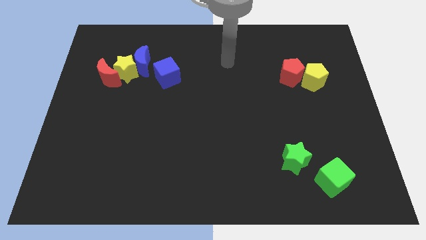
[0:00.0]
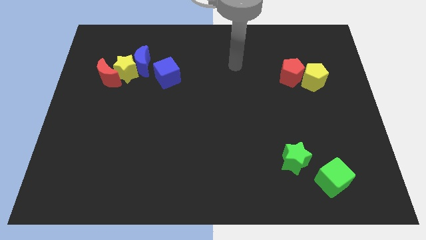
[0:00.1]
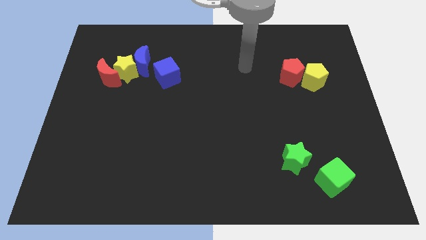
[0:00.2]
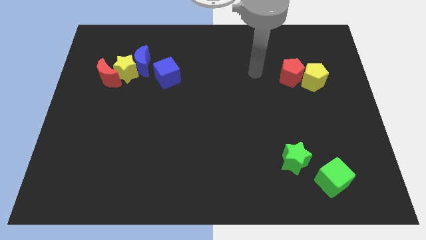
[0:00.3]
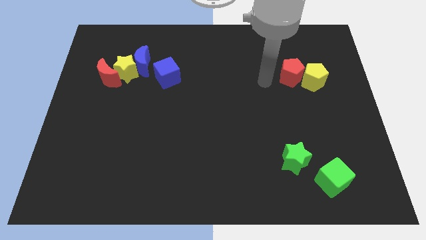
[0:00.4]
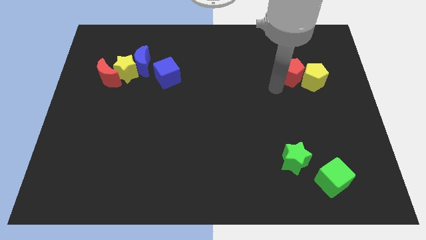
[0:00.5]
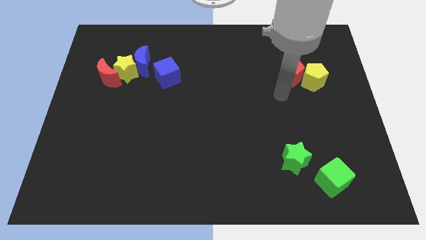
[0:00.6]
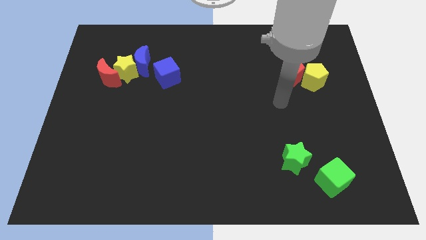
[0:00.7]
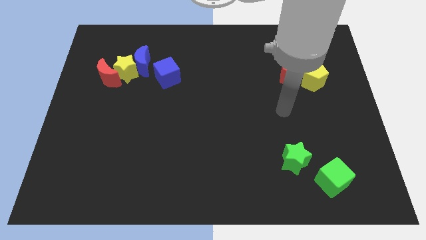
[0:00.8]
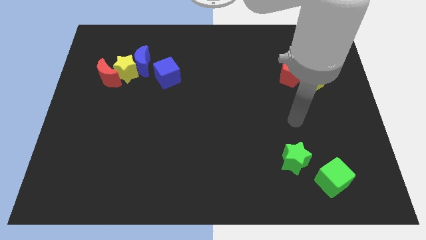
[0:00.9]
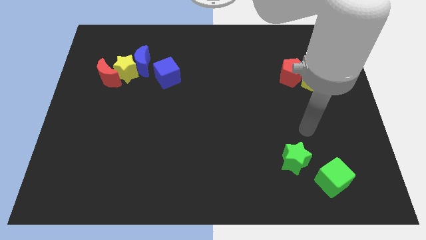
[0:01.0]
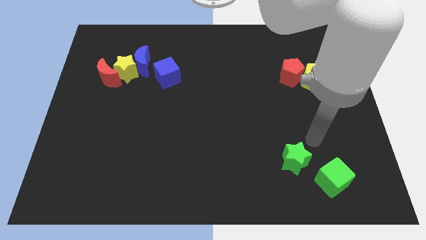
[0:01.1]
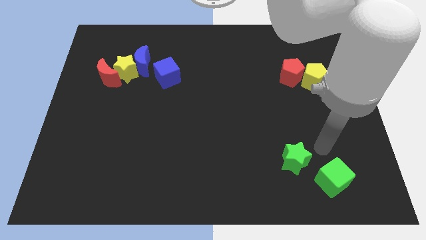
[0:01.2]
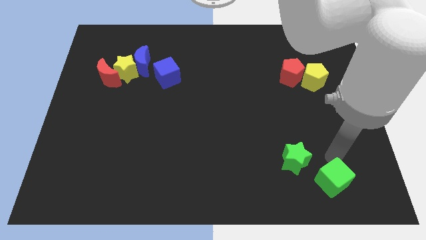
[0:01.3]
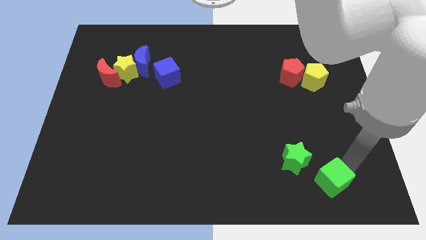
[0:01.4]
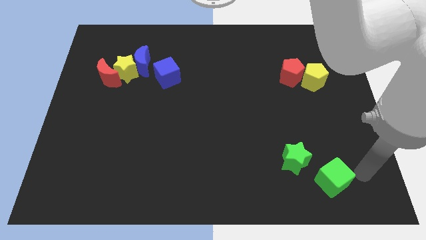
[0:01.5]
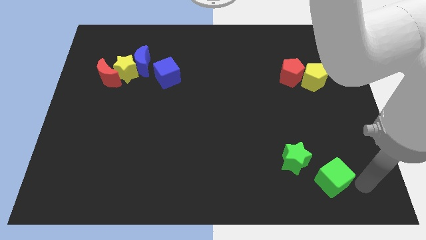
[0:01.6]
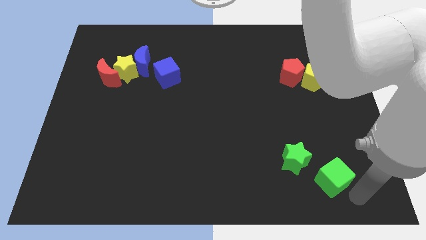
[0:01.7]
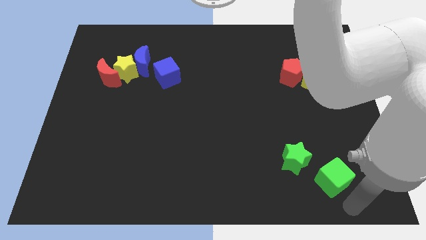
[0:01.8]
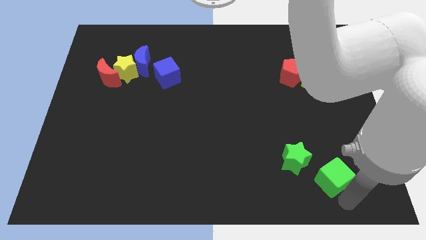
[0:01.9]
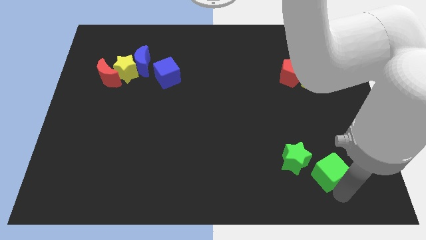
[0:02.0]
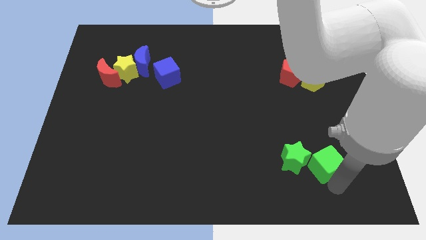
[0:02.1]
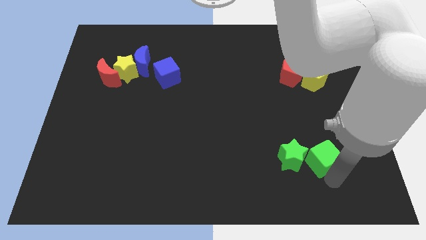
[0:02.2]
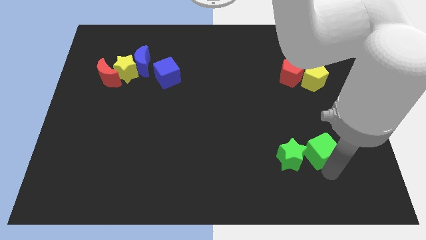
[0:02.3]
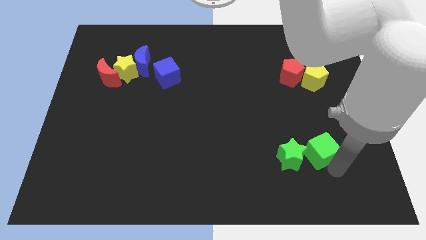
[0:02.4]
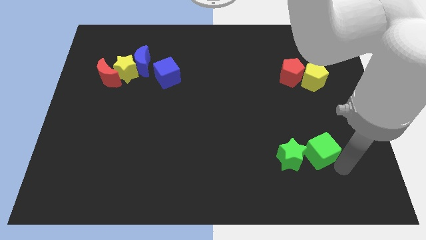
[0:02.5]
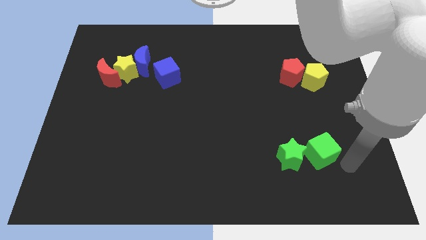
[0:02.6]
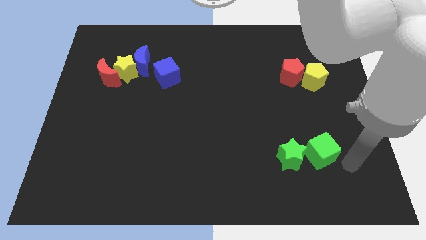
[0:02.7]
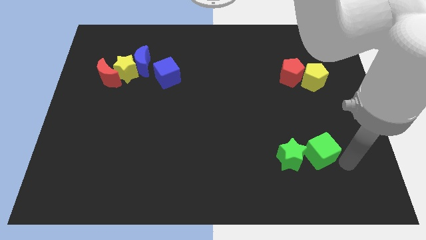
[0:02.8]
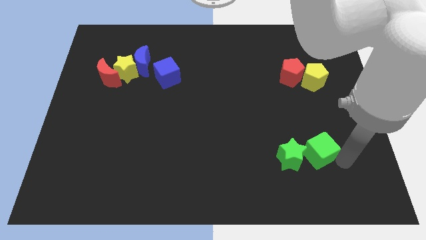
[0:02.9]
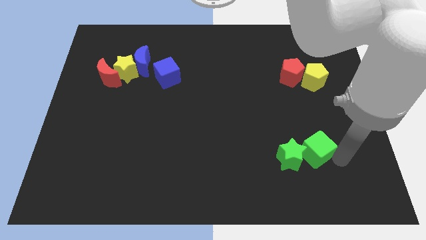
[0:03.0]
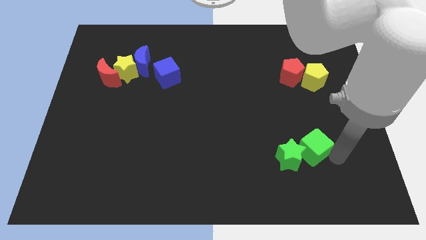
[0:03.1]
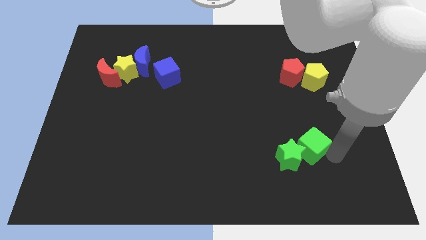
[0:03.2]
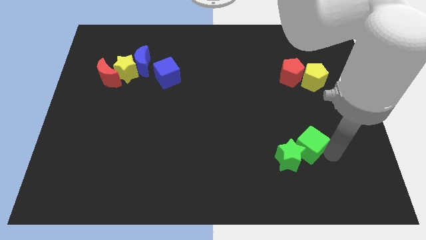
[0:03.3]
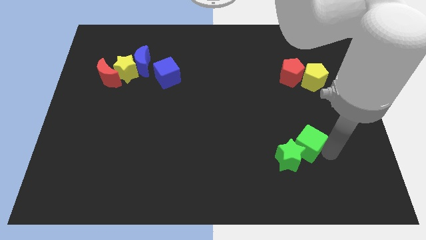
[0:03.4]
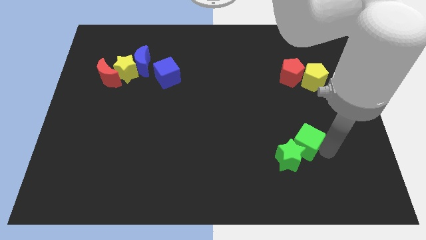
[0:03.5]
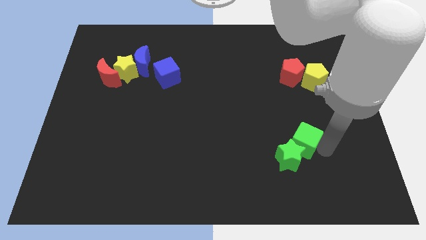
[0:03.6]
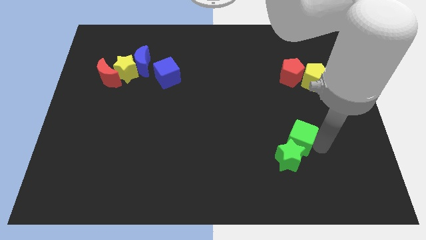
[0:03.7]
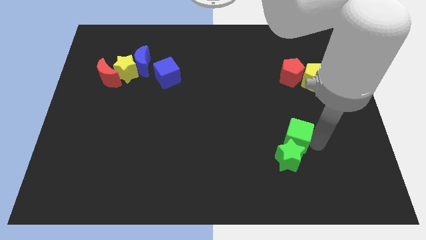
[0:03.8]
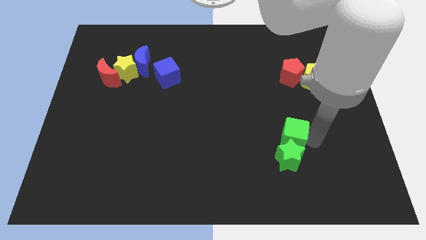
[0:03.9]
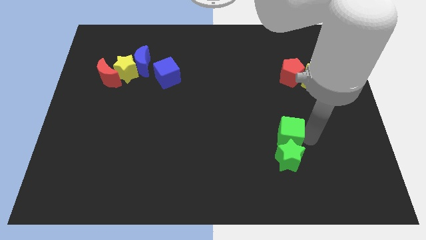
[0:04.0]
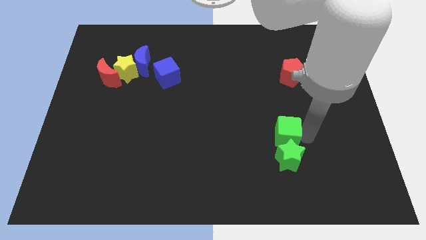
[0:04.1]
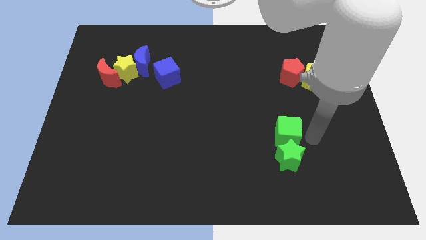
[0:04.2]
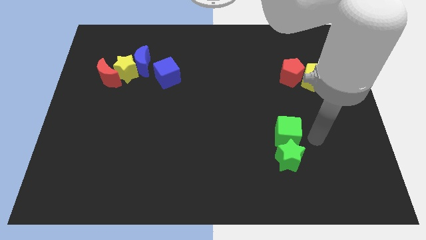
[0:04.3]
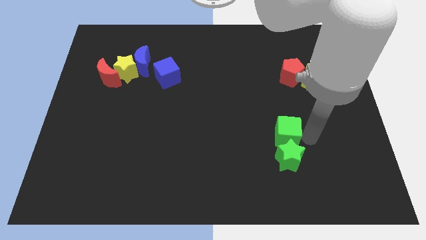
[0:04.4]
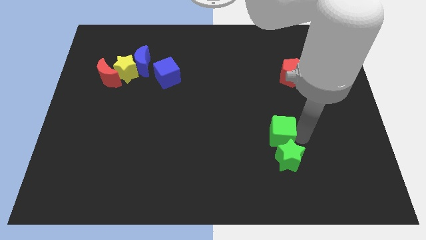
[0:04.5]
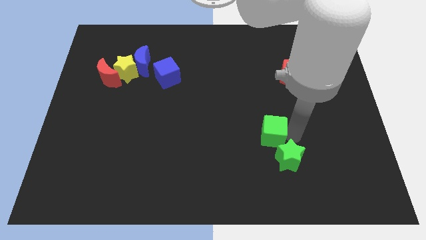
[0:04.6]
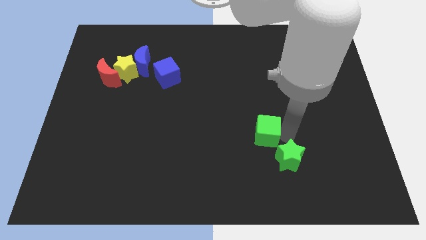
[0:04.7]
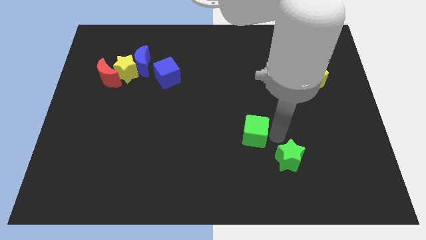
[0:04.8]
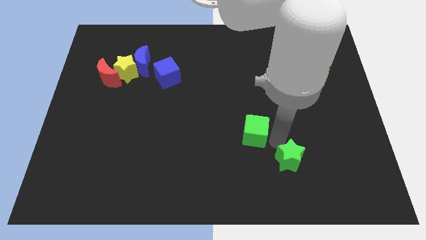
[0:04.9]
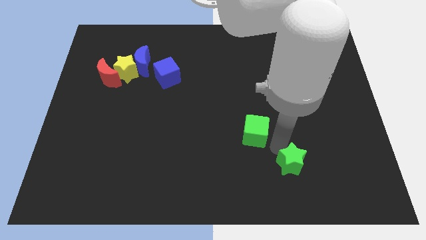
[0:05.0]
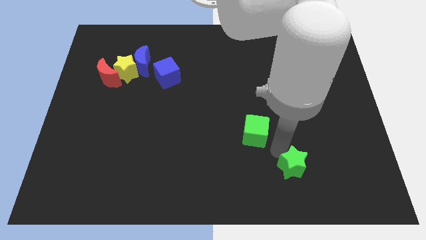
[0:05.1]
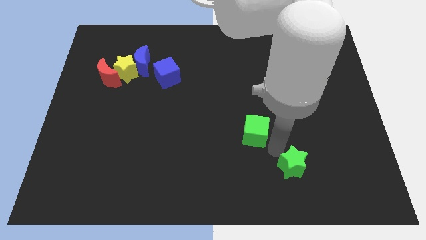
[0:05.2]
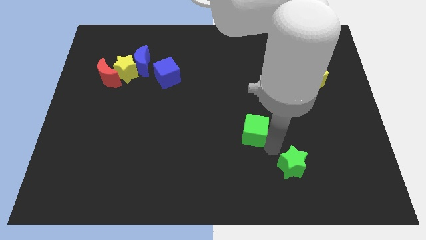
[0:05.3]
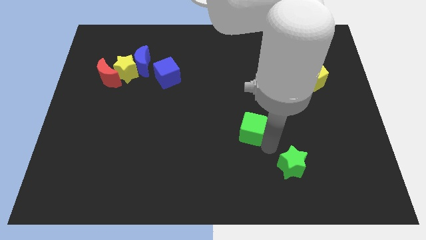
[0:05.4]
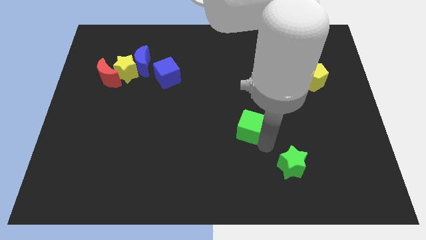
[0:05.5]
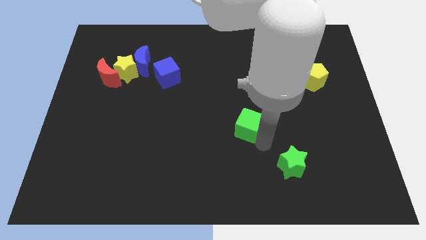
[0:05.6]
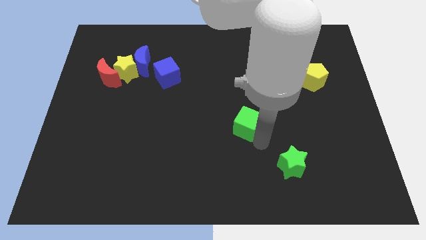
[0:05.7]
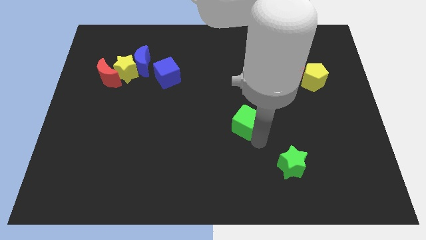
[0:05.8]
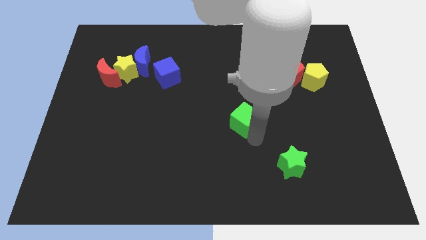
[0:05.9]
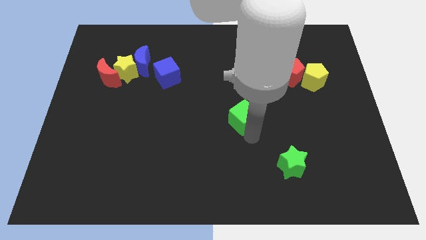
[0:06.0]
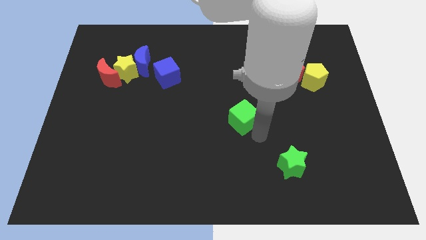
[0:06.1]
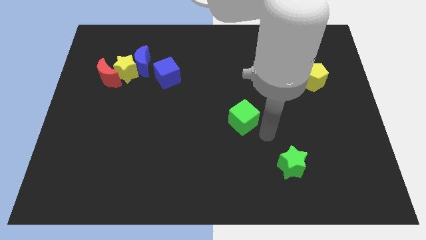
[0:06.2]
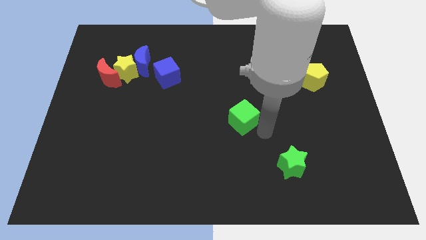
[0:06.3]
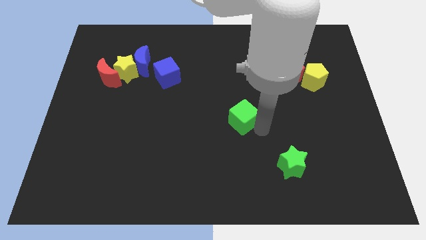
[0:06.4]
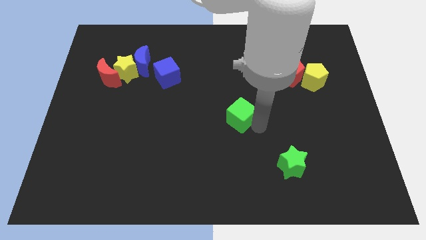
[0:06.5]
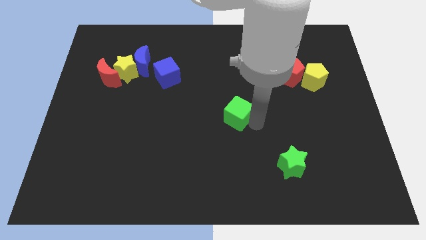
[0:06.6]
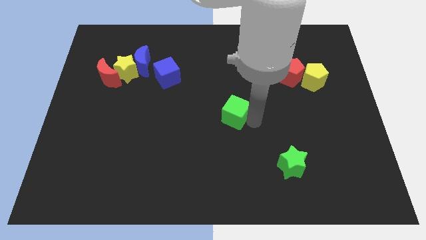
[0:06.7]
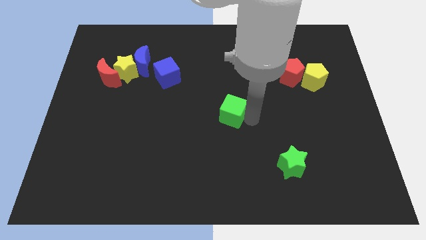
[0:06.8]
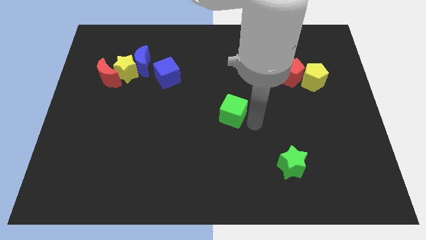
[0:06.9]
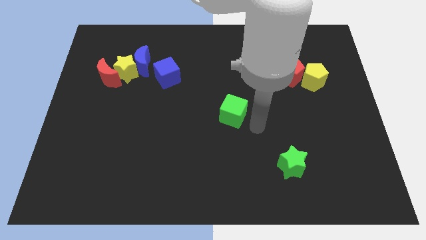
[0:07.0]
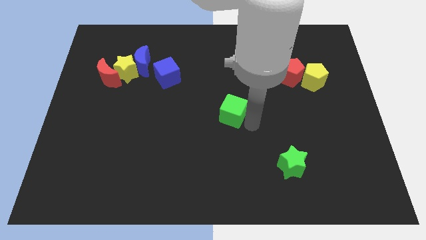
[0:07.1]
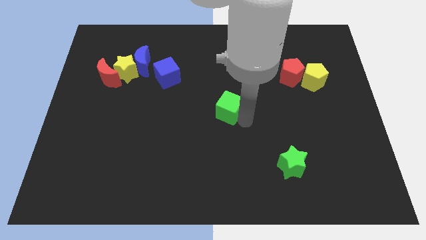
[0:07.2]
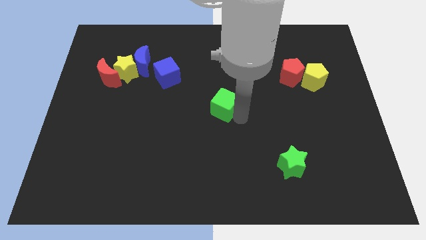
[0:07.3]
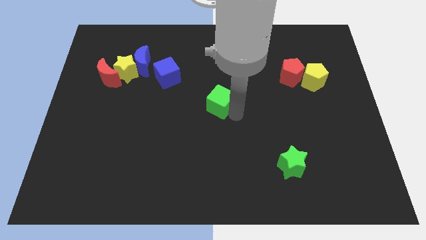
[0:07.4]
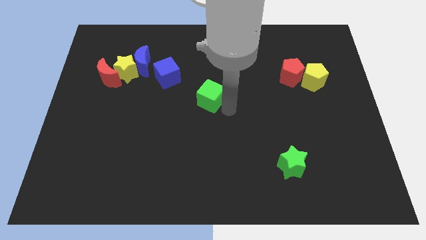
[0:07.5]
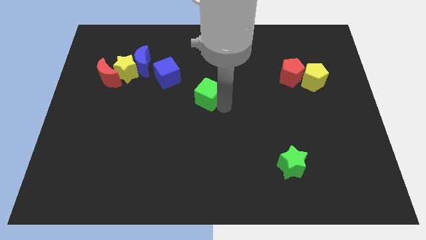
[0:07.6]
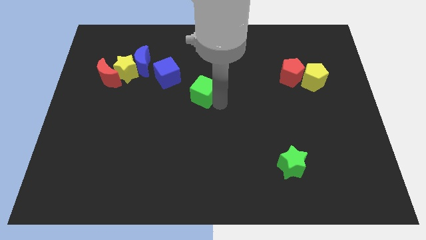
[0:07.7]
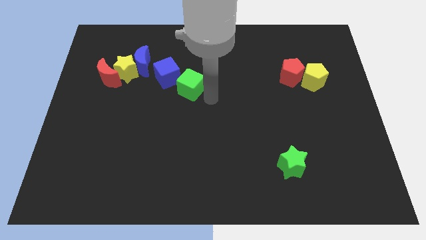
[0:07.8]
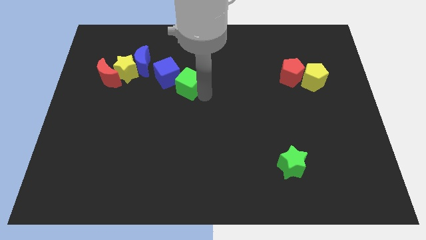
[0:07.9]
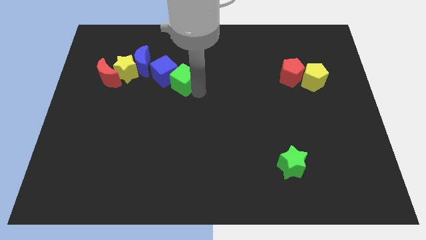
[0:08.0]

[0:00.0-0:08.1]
push the green cube next to the blue cube
